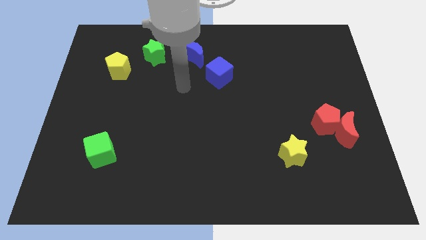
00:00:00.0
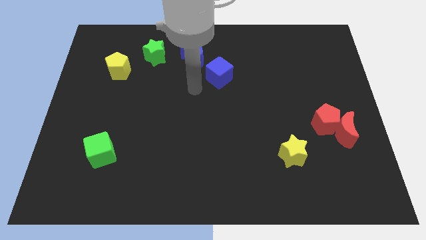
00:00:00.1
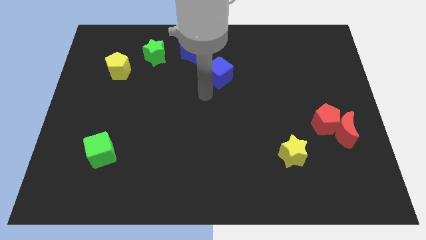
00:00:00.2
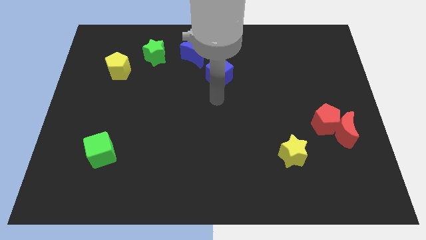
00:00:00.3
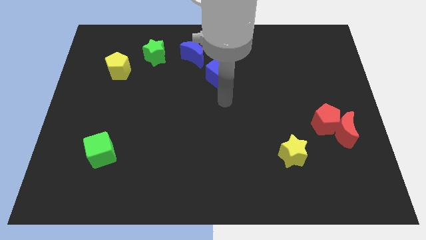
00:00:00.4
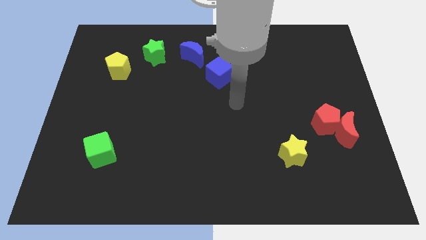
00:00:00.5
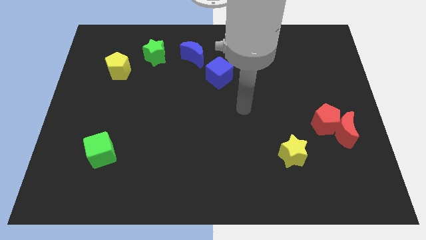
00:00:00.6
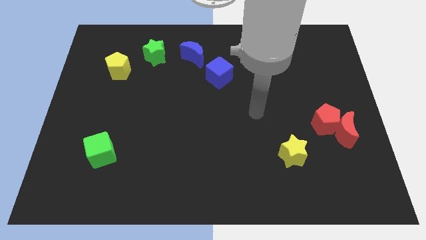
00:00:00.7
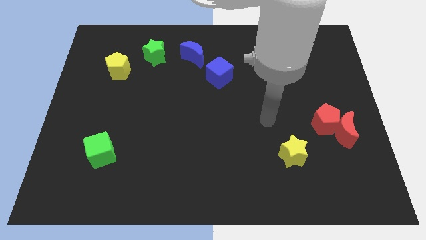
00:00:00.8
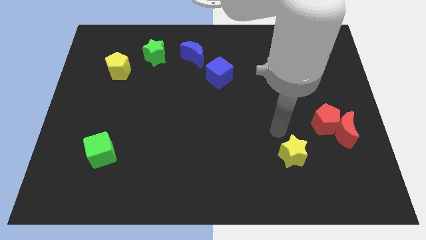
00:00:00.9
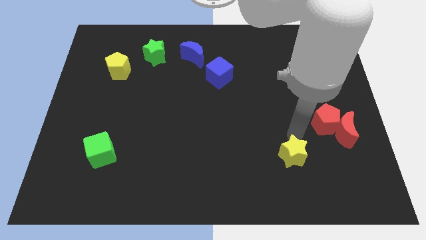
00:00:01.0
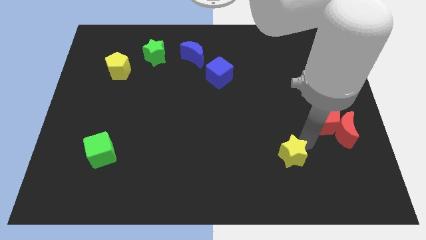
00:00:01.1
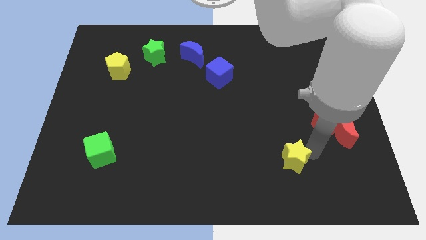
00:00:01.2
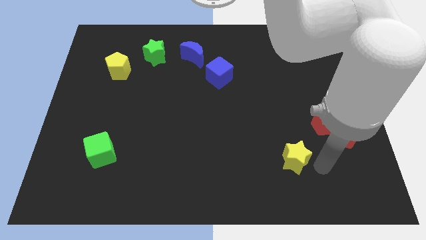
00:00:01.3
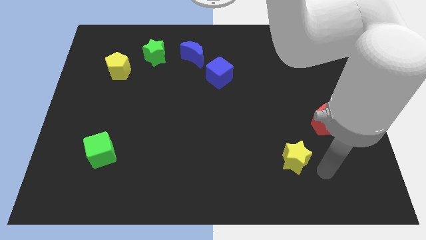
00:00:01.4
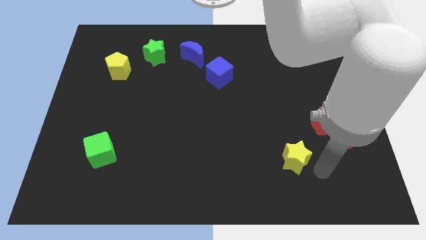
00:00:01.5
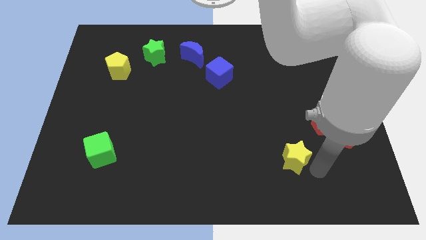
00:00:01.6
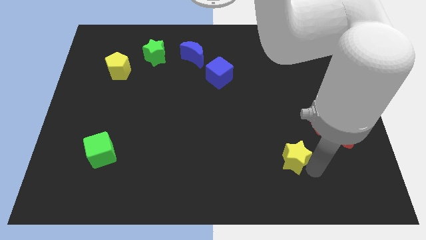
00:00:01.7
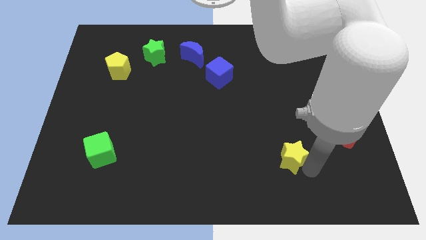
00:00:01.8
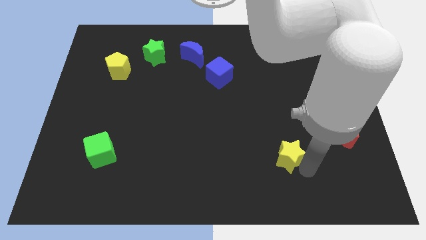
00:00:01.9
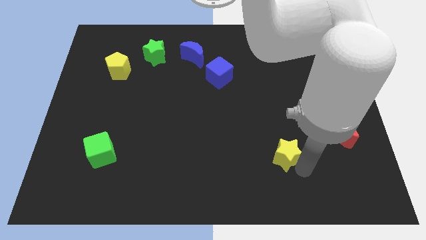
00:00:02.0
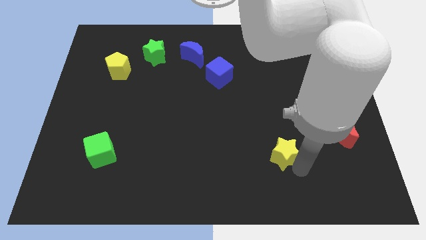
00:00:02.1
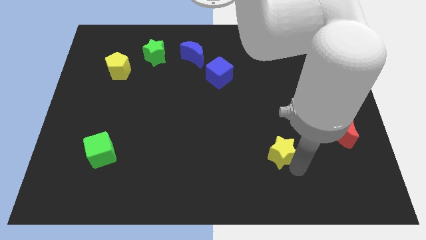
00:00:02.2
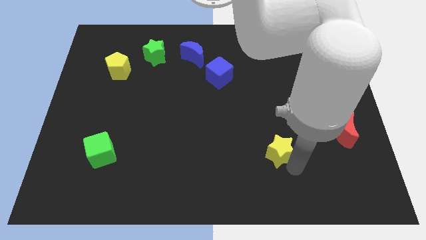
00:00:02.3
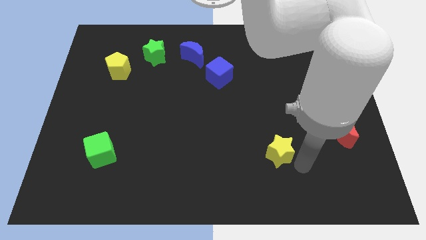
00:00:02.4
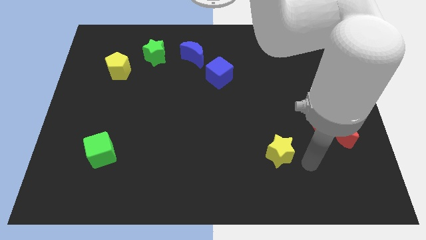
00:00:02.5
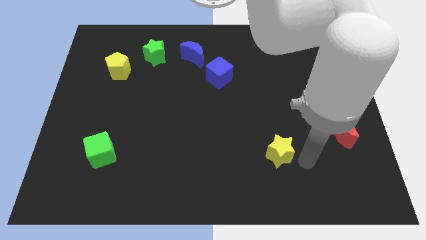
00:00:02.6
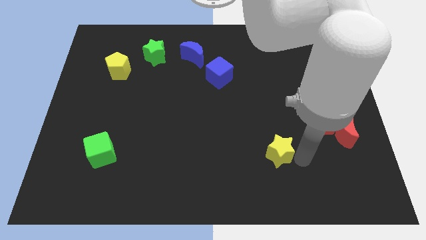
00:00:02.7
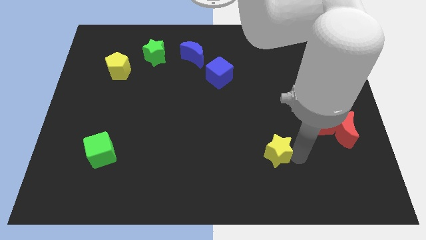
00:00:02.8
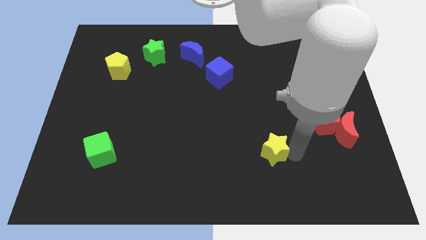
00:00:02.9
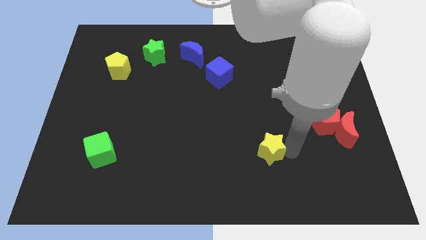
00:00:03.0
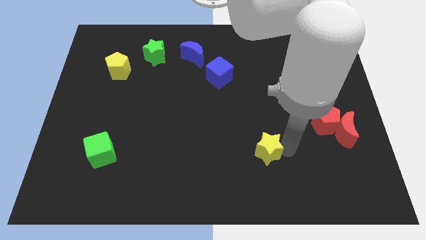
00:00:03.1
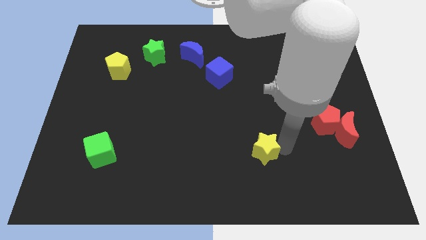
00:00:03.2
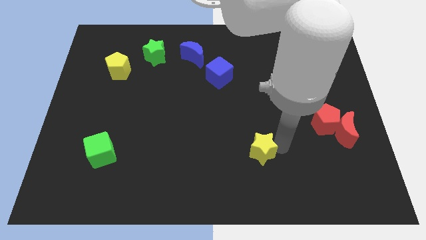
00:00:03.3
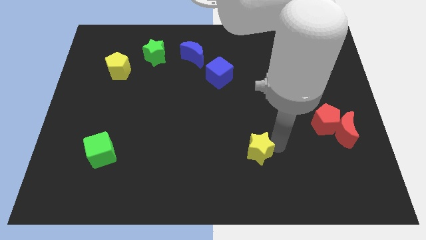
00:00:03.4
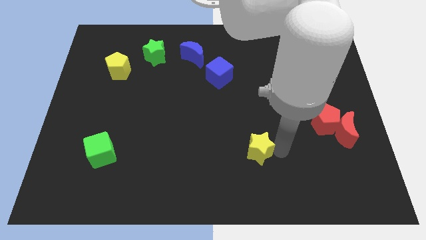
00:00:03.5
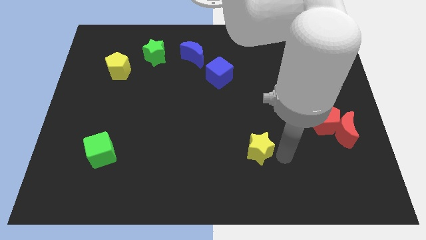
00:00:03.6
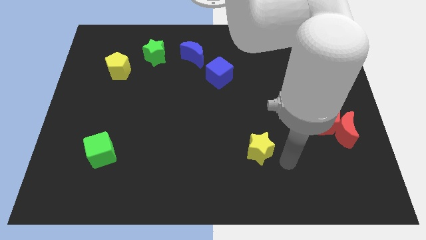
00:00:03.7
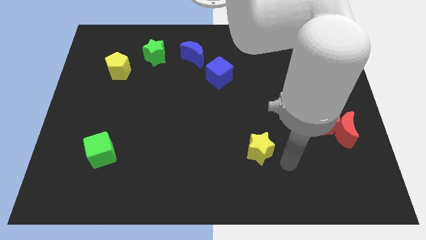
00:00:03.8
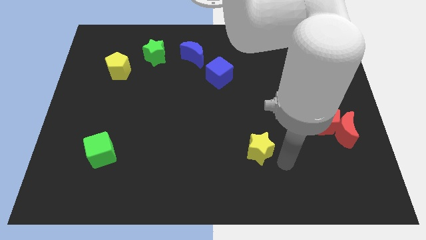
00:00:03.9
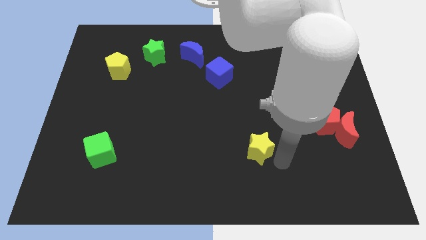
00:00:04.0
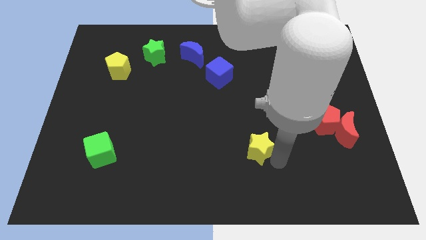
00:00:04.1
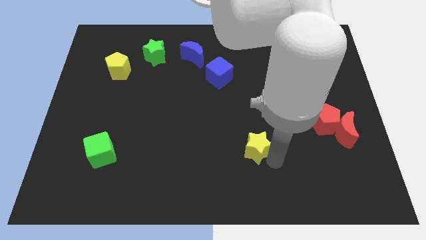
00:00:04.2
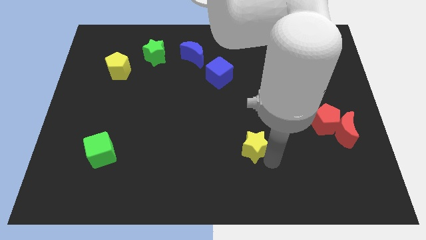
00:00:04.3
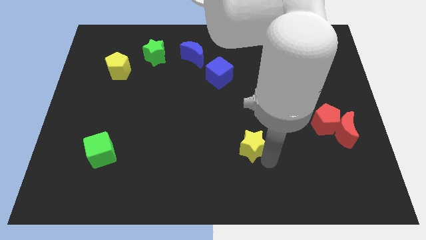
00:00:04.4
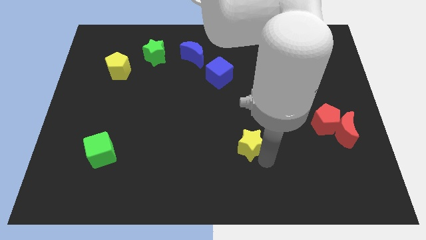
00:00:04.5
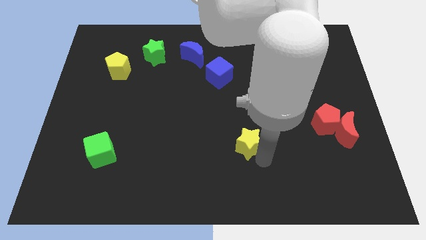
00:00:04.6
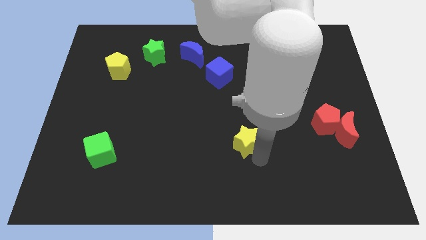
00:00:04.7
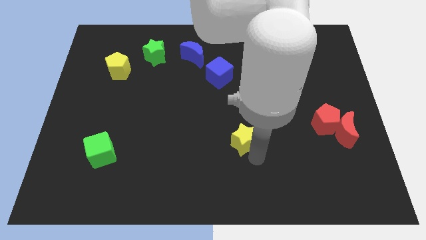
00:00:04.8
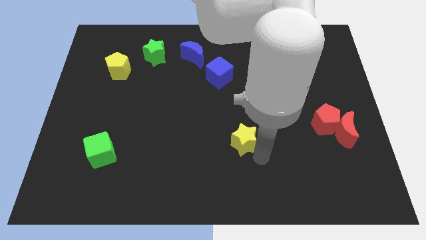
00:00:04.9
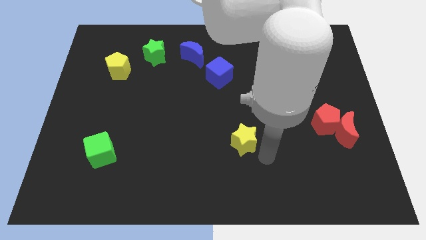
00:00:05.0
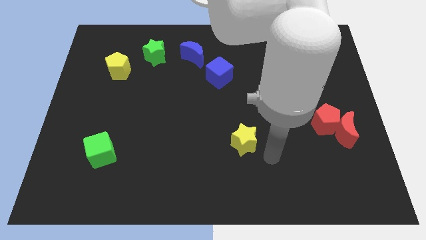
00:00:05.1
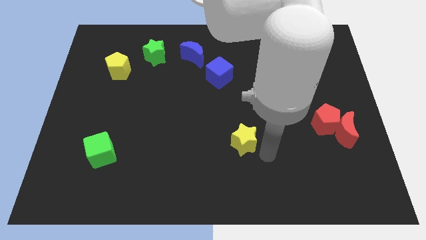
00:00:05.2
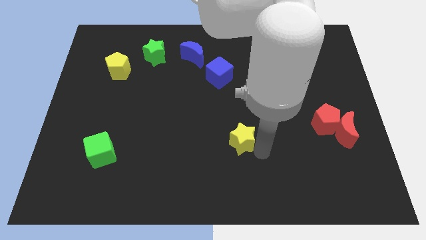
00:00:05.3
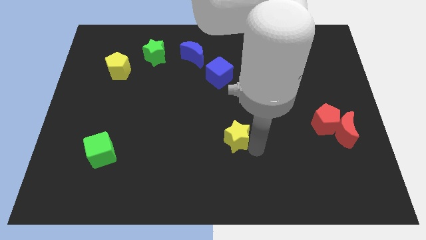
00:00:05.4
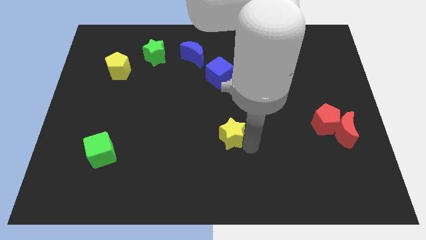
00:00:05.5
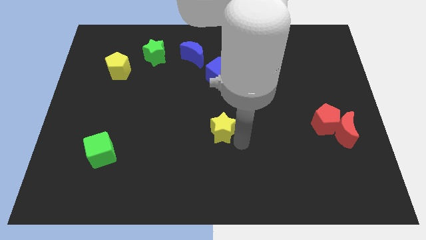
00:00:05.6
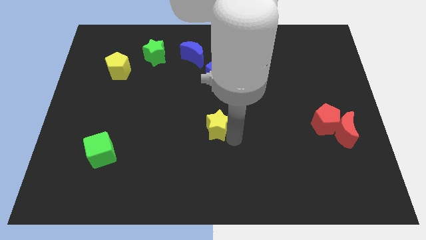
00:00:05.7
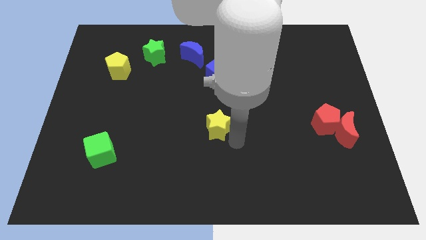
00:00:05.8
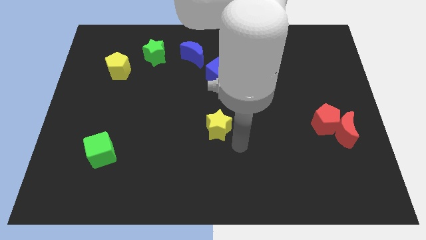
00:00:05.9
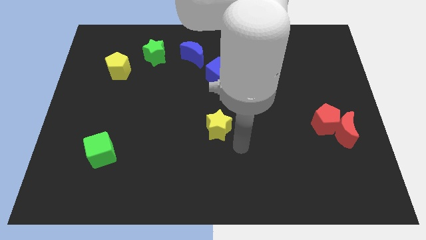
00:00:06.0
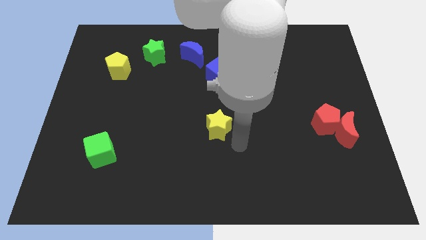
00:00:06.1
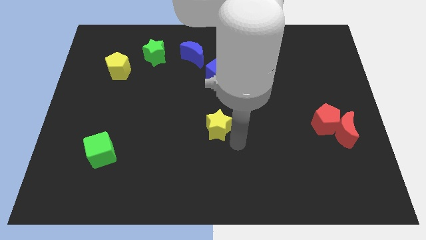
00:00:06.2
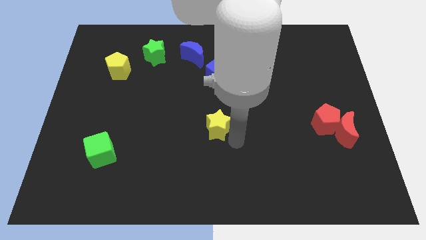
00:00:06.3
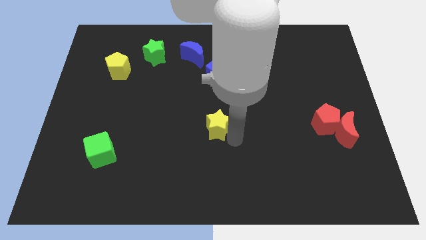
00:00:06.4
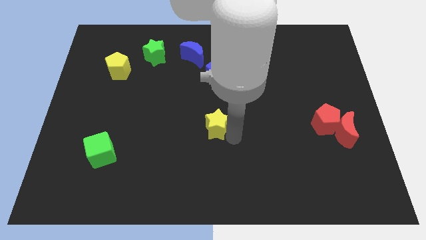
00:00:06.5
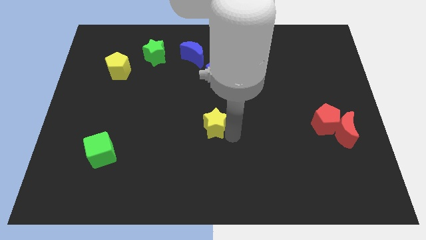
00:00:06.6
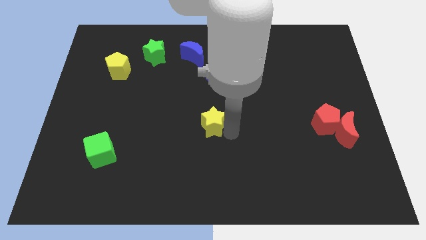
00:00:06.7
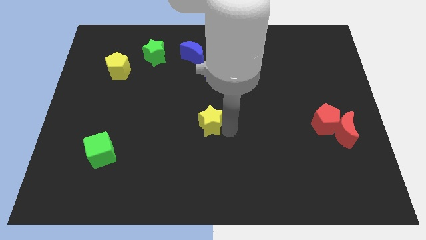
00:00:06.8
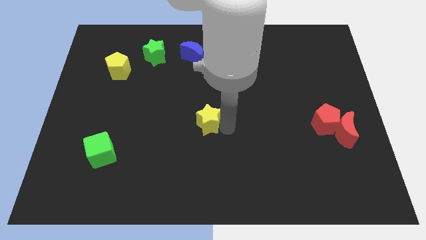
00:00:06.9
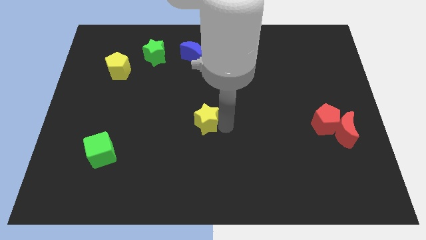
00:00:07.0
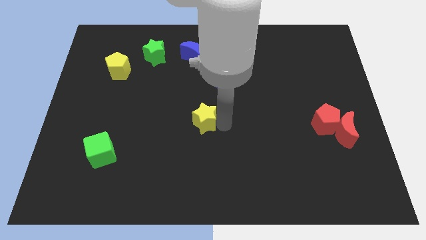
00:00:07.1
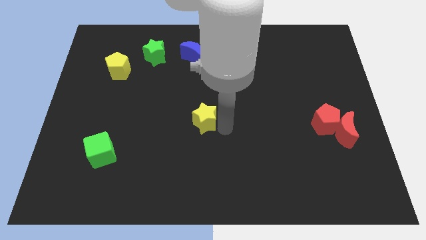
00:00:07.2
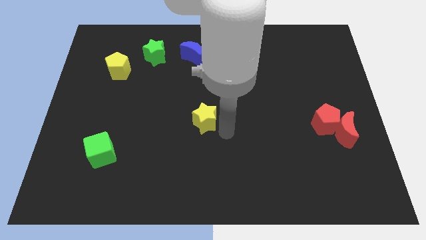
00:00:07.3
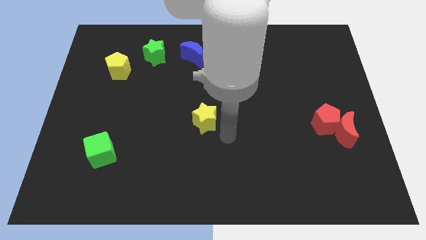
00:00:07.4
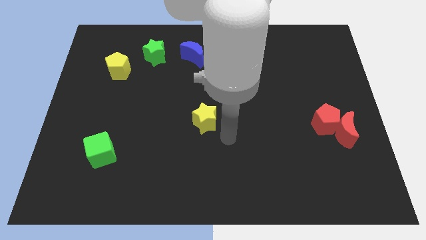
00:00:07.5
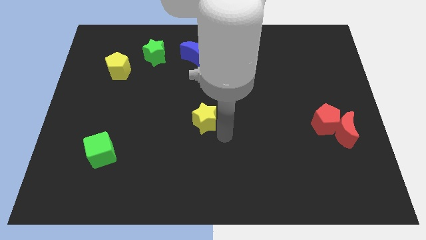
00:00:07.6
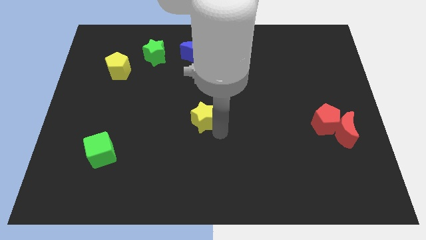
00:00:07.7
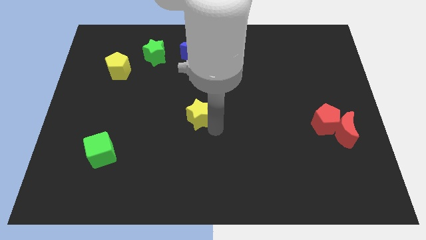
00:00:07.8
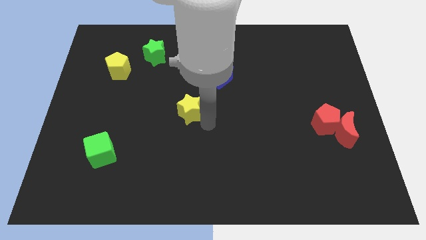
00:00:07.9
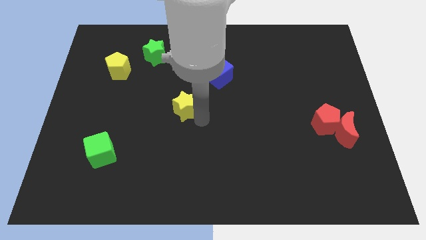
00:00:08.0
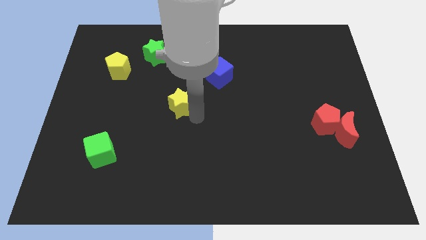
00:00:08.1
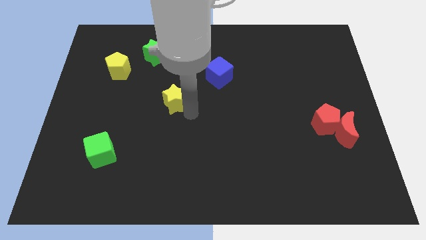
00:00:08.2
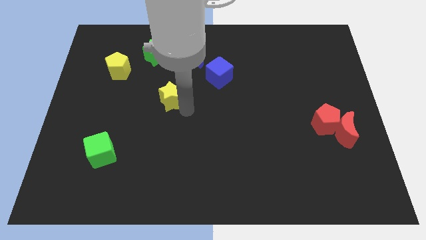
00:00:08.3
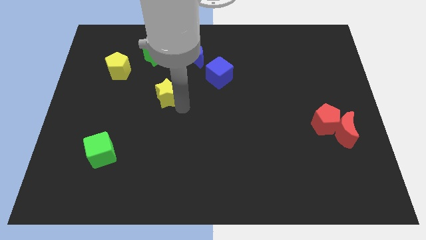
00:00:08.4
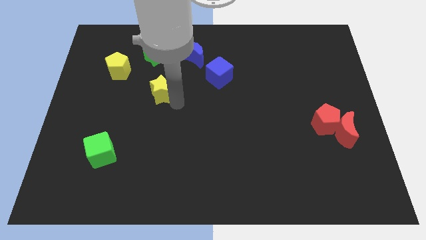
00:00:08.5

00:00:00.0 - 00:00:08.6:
put the yellow star to the bottom of the green star
